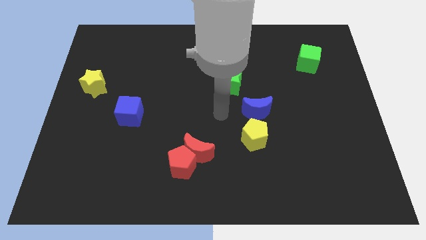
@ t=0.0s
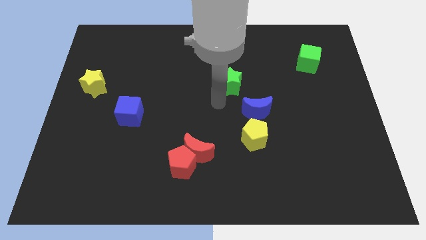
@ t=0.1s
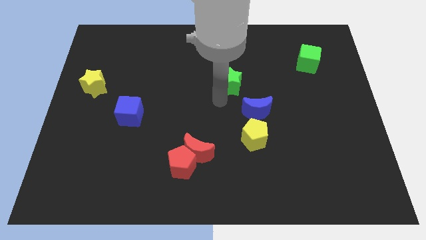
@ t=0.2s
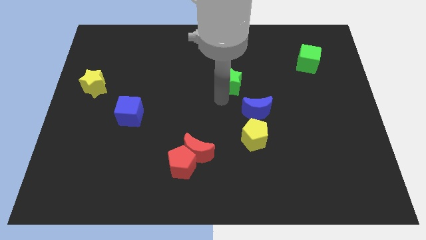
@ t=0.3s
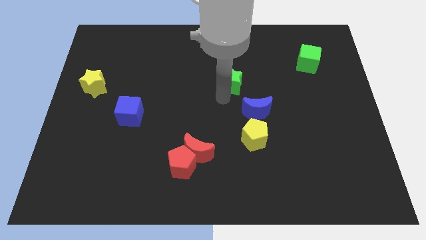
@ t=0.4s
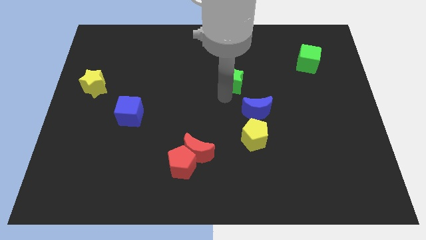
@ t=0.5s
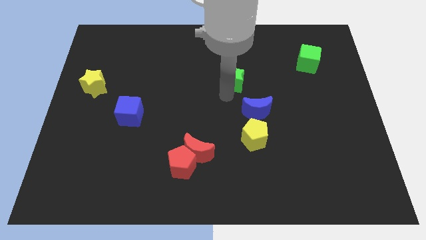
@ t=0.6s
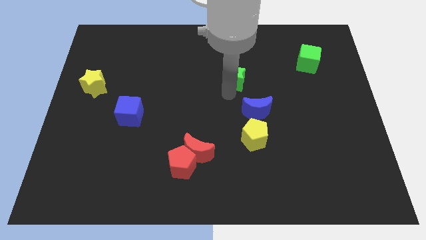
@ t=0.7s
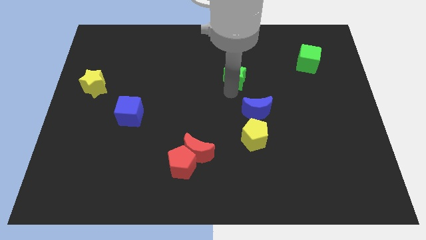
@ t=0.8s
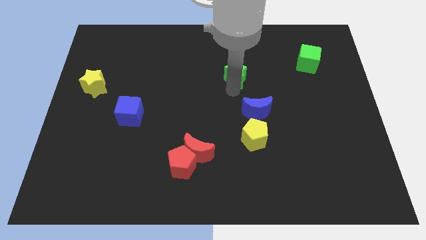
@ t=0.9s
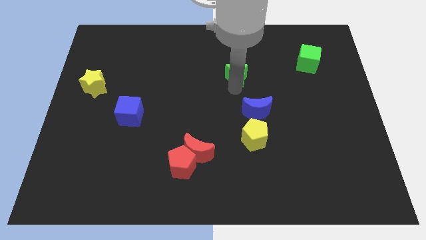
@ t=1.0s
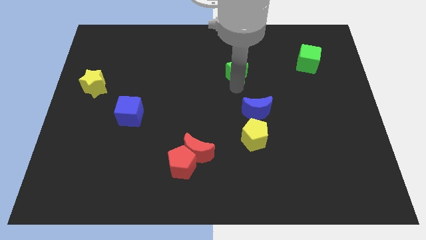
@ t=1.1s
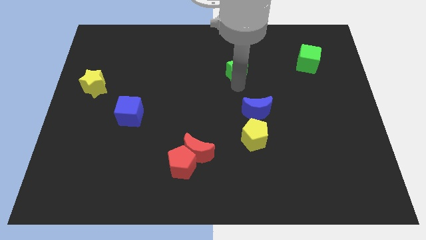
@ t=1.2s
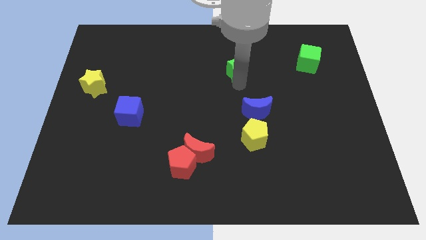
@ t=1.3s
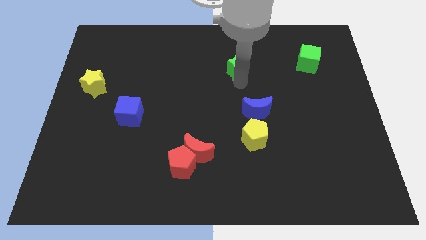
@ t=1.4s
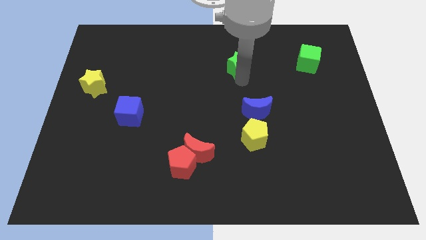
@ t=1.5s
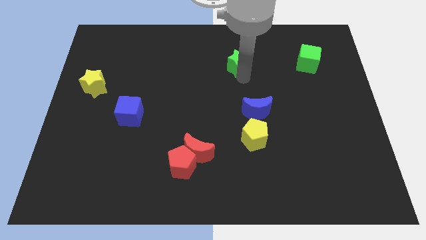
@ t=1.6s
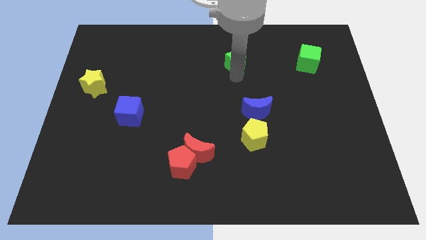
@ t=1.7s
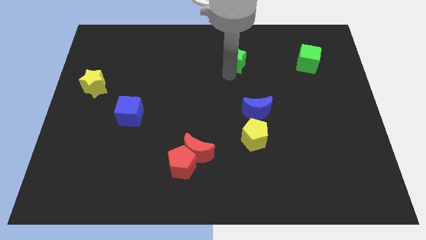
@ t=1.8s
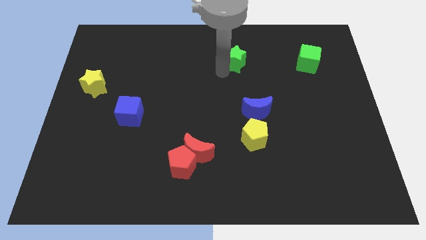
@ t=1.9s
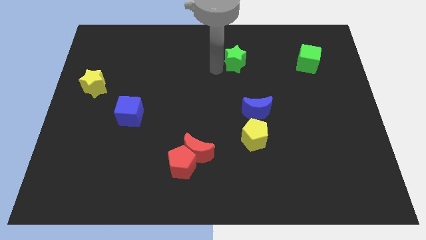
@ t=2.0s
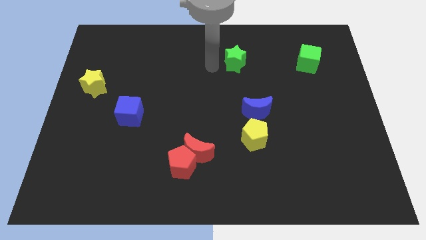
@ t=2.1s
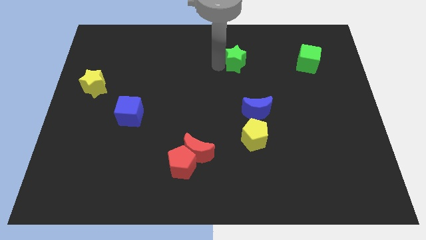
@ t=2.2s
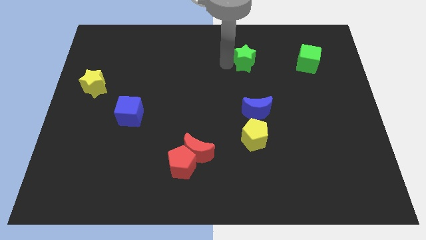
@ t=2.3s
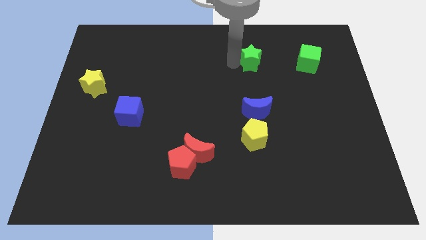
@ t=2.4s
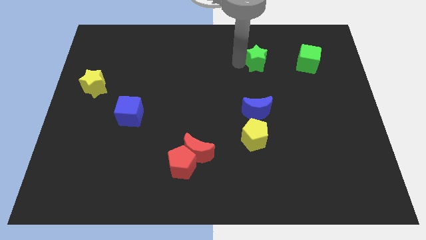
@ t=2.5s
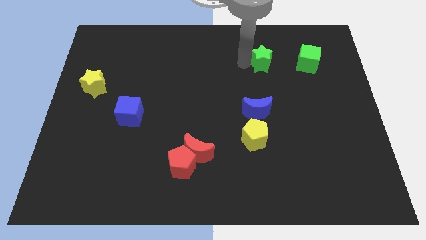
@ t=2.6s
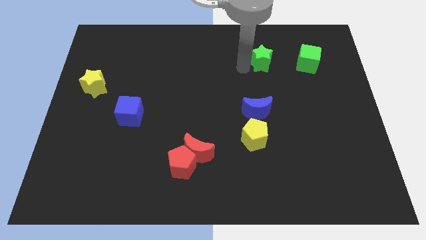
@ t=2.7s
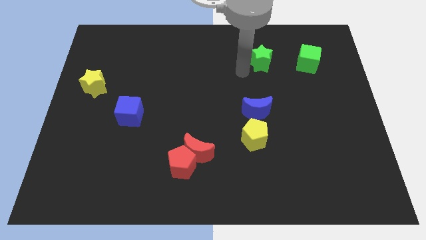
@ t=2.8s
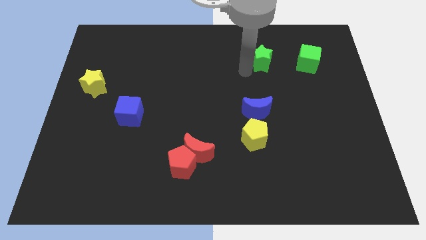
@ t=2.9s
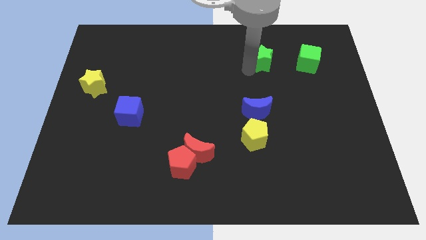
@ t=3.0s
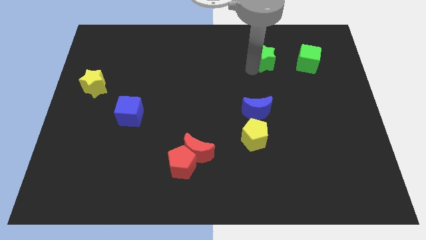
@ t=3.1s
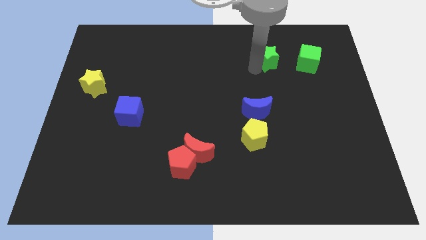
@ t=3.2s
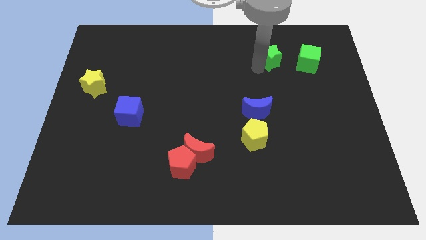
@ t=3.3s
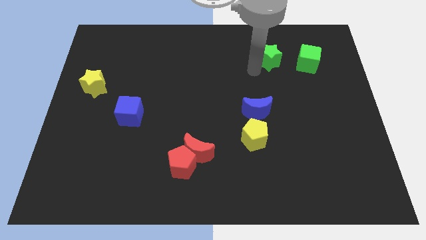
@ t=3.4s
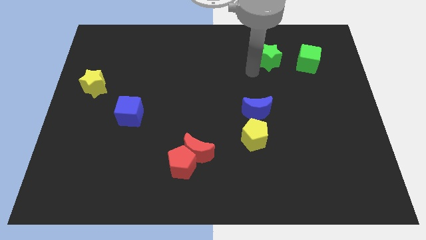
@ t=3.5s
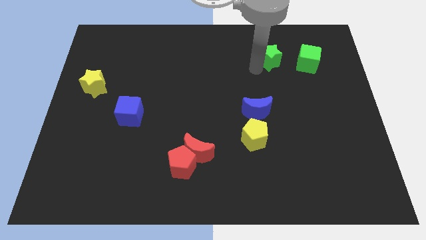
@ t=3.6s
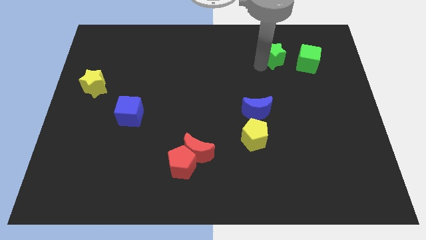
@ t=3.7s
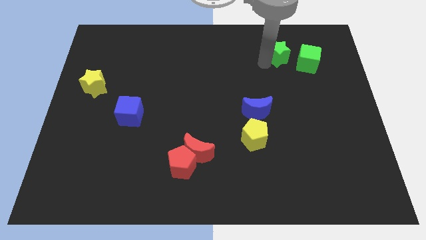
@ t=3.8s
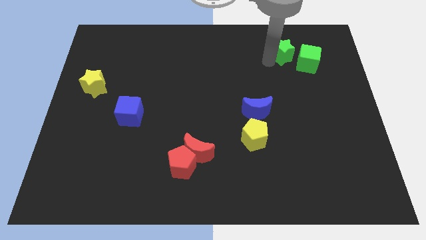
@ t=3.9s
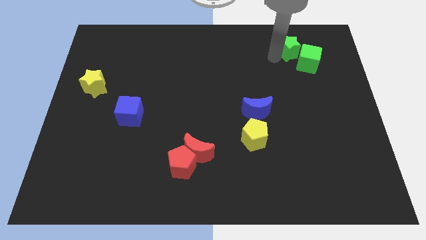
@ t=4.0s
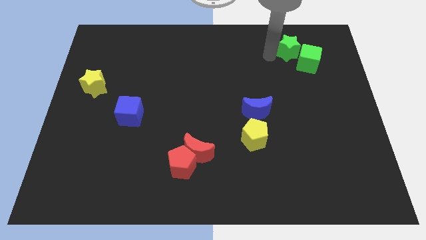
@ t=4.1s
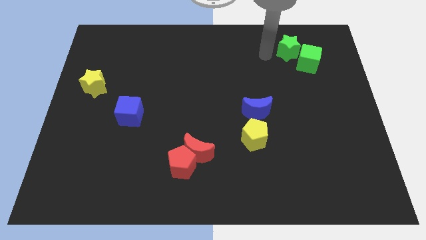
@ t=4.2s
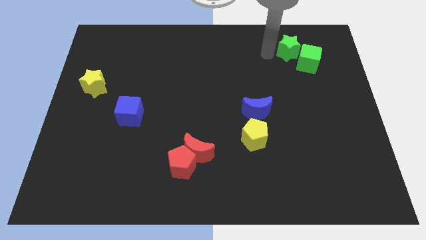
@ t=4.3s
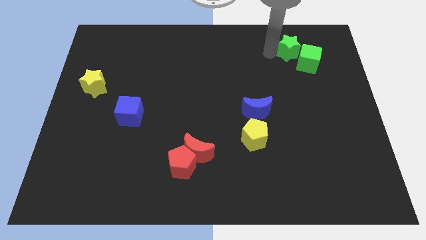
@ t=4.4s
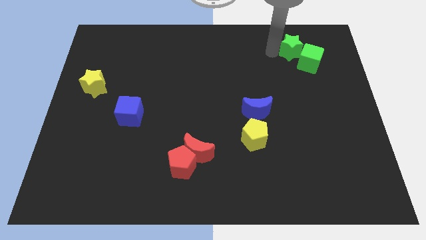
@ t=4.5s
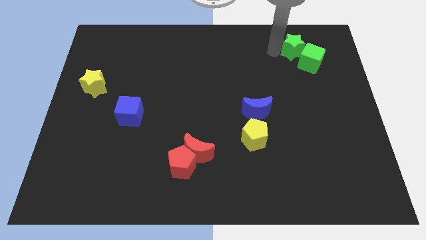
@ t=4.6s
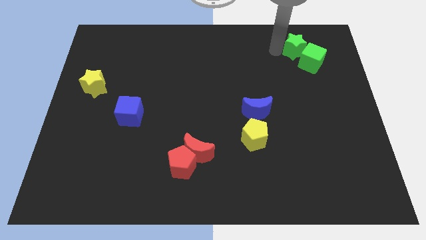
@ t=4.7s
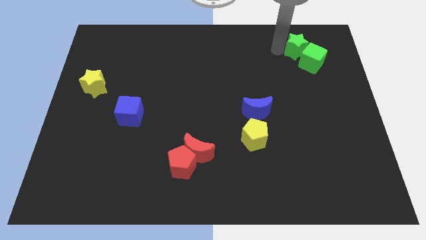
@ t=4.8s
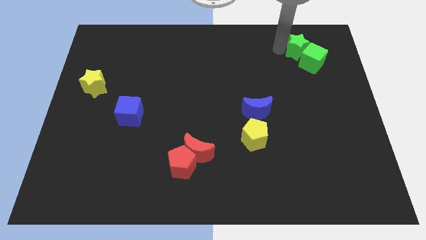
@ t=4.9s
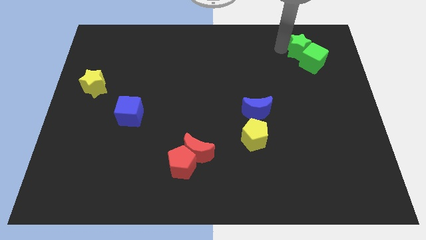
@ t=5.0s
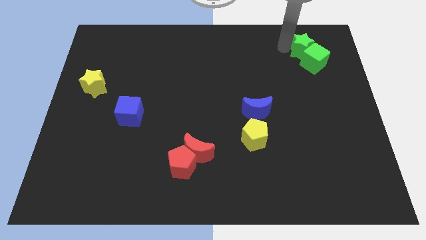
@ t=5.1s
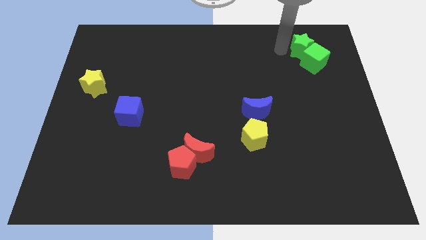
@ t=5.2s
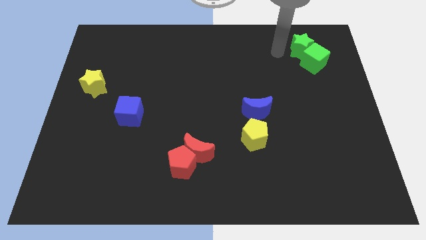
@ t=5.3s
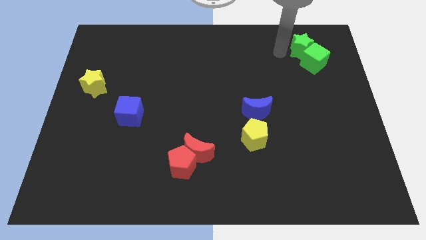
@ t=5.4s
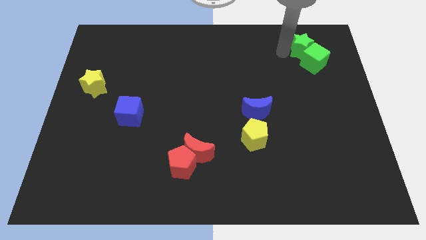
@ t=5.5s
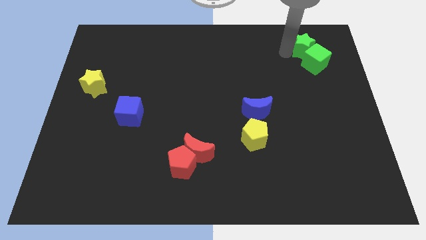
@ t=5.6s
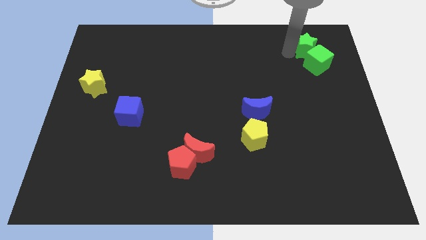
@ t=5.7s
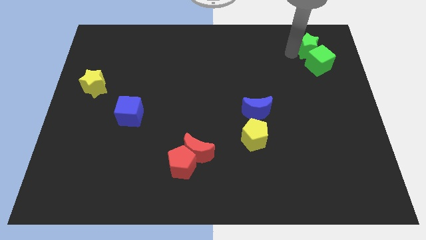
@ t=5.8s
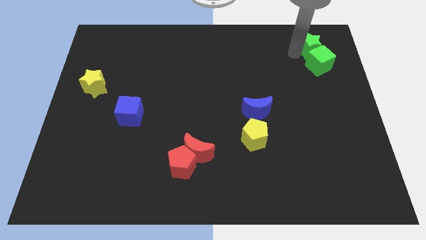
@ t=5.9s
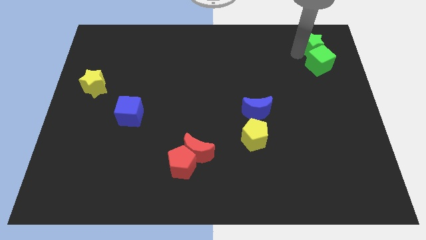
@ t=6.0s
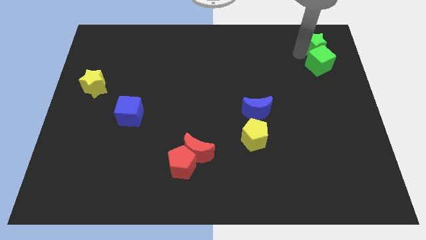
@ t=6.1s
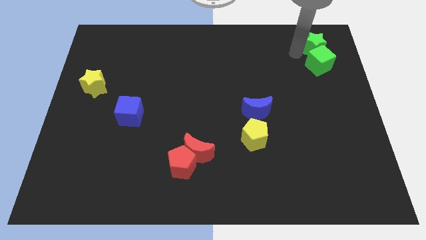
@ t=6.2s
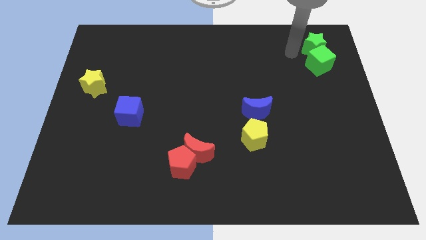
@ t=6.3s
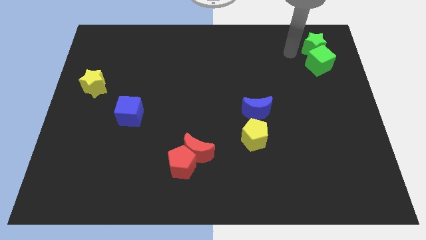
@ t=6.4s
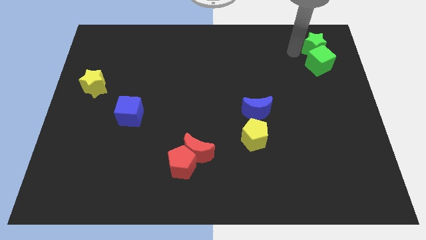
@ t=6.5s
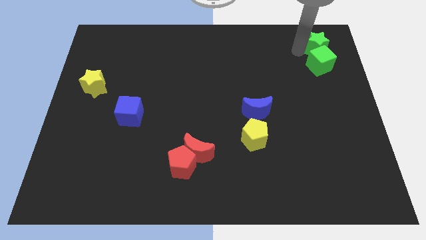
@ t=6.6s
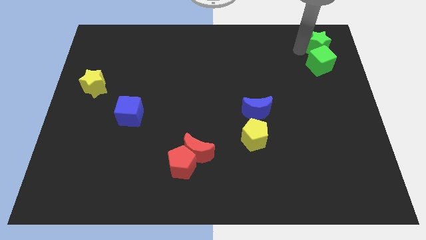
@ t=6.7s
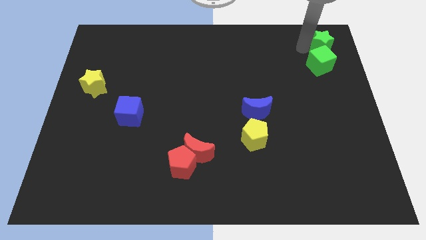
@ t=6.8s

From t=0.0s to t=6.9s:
push the green star to the top right corner
